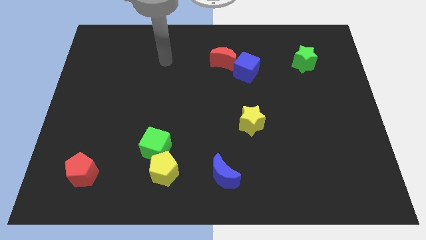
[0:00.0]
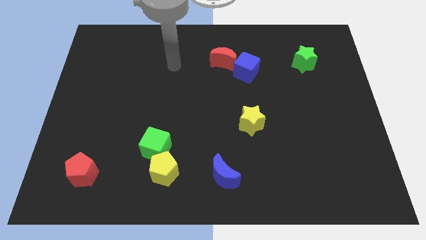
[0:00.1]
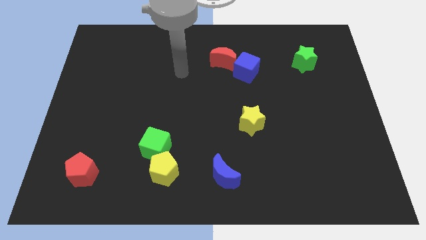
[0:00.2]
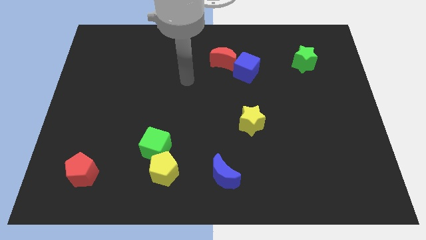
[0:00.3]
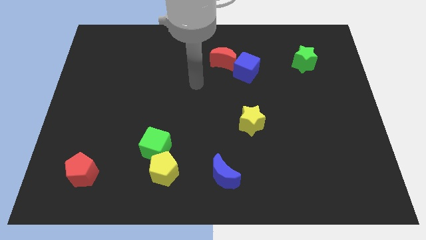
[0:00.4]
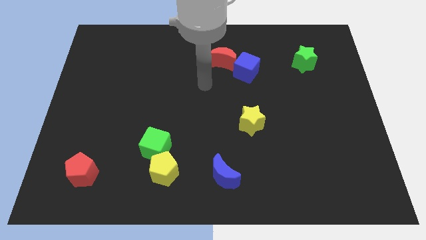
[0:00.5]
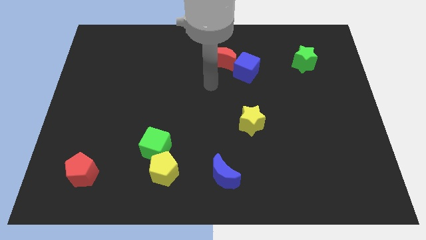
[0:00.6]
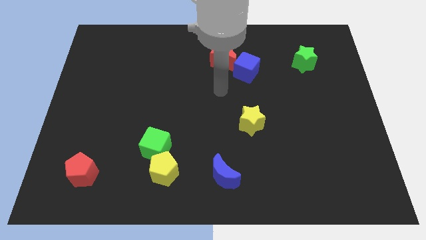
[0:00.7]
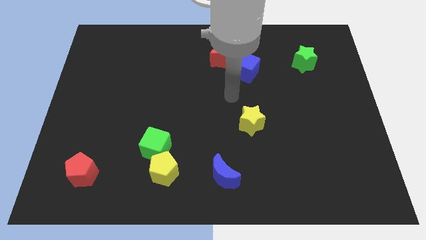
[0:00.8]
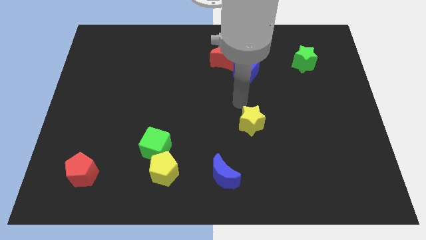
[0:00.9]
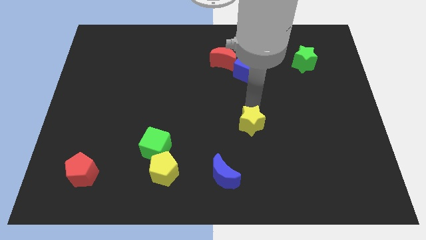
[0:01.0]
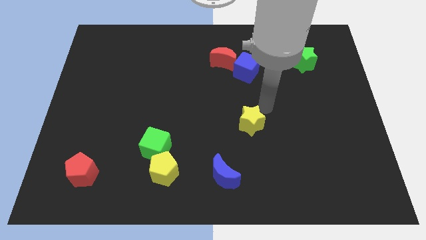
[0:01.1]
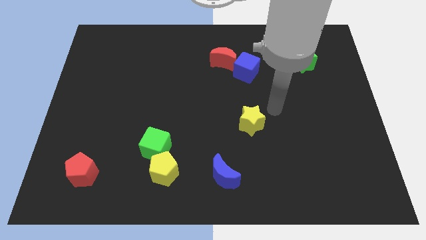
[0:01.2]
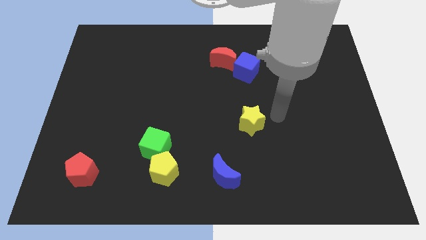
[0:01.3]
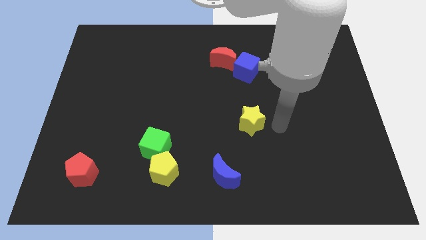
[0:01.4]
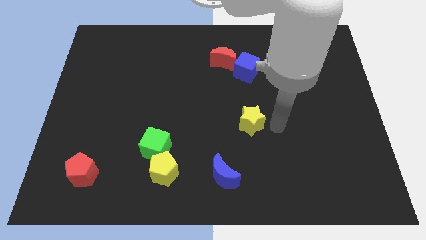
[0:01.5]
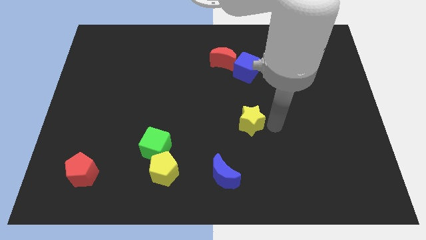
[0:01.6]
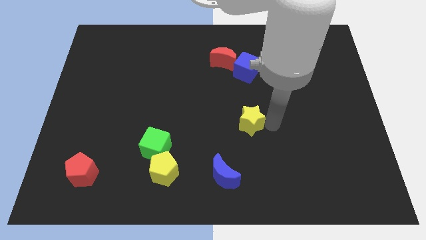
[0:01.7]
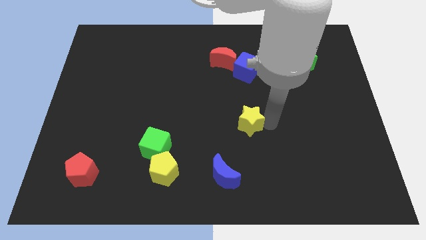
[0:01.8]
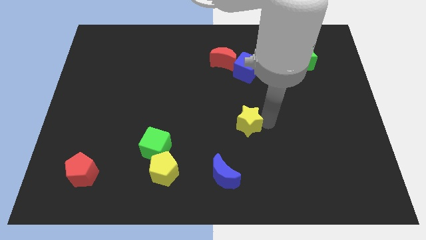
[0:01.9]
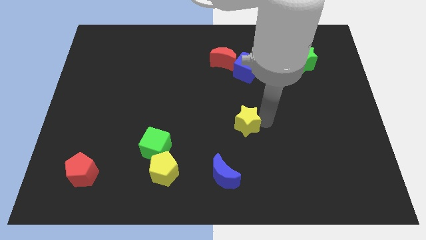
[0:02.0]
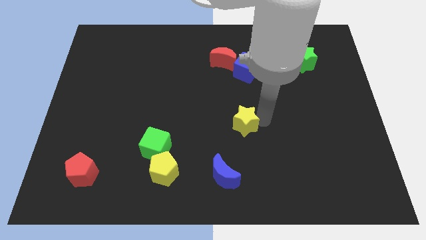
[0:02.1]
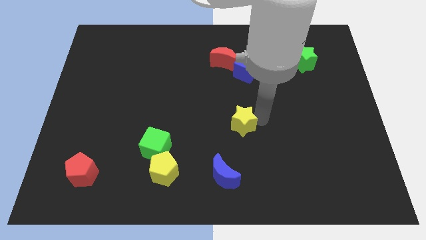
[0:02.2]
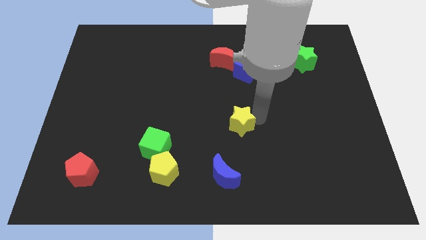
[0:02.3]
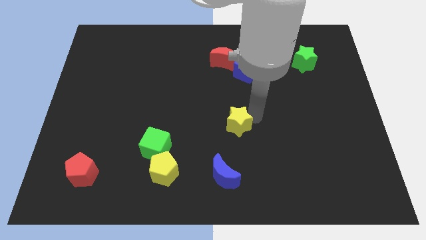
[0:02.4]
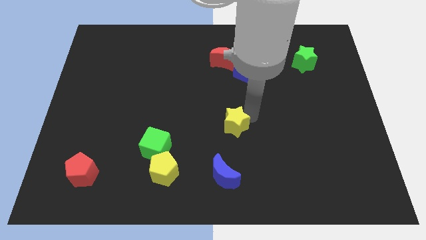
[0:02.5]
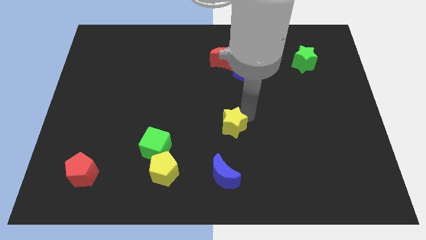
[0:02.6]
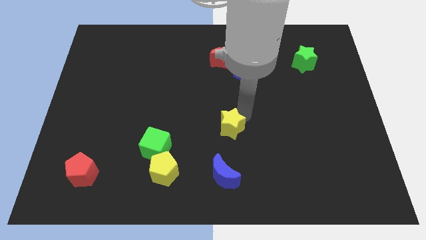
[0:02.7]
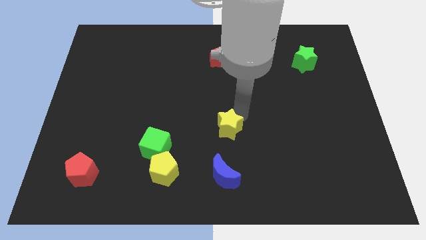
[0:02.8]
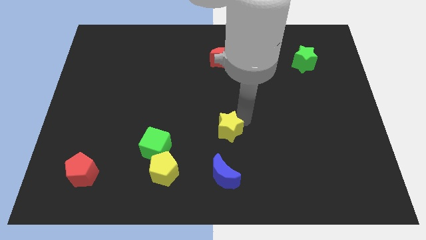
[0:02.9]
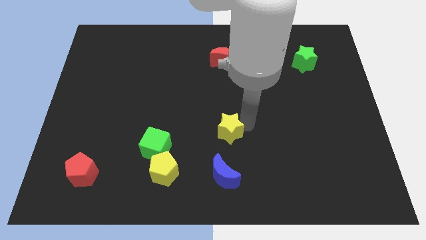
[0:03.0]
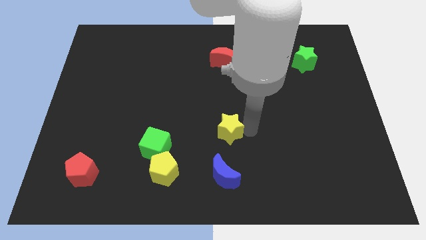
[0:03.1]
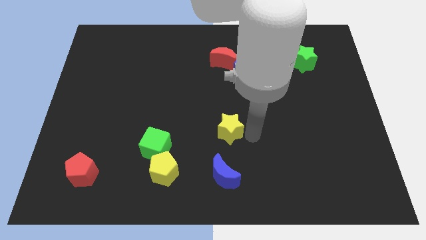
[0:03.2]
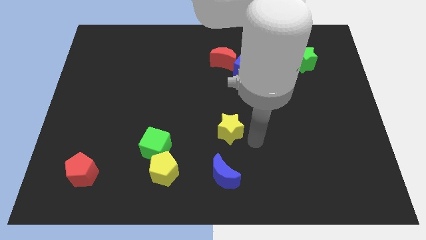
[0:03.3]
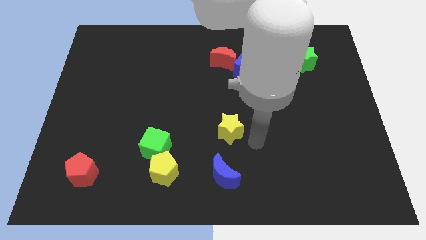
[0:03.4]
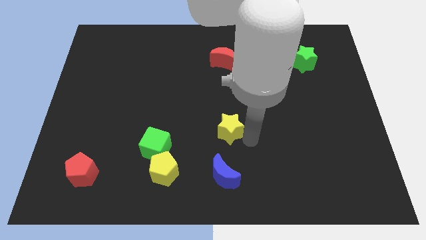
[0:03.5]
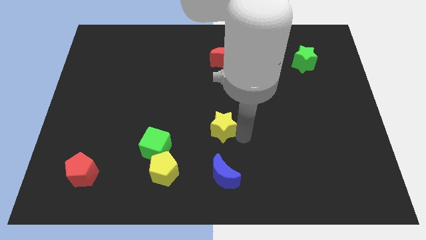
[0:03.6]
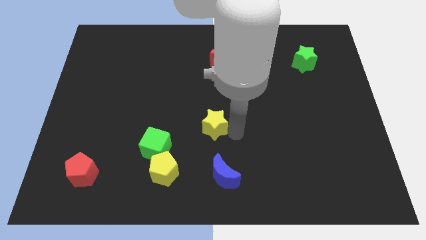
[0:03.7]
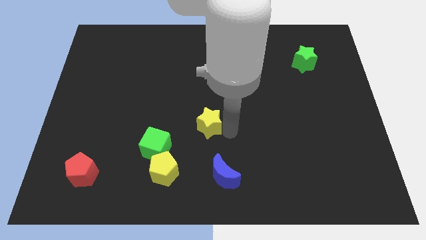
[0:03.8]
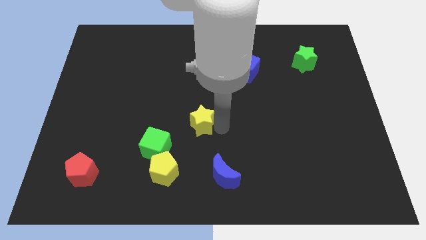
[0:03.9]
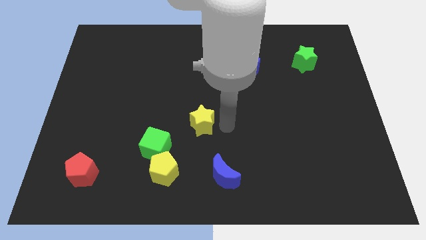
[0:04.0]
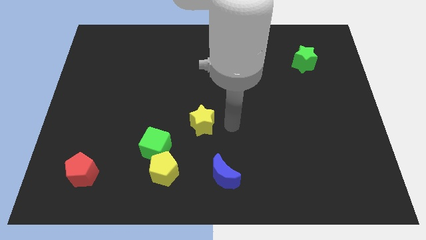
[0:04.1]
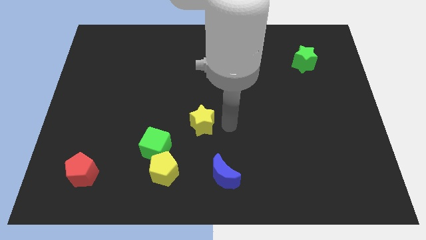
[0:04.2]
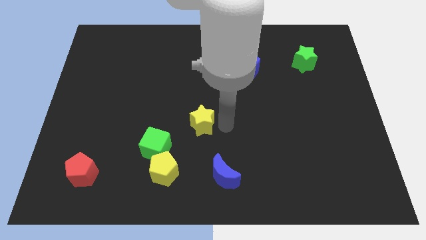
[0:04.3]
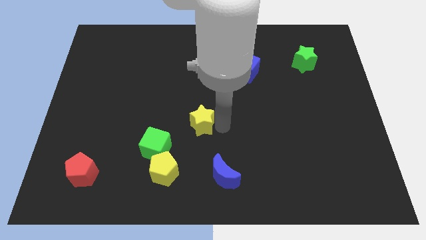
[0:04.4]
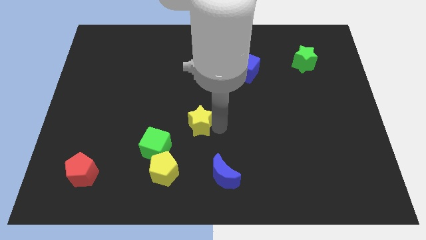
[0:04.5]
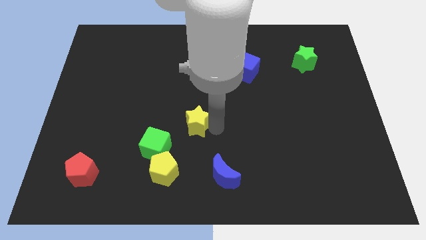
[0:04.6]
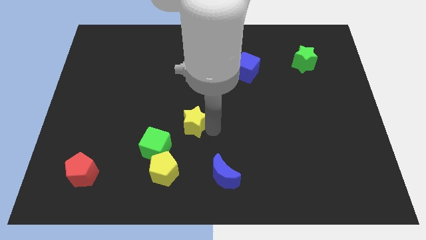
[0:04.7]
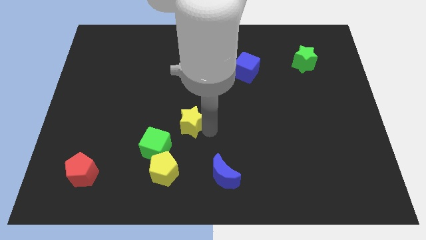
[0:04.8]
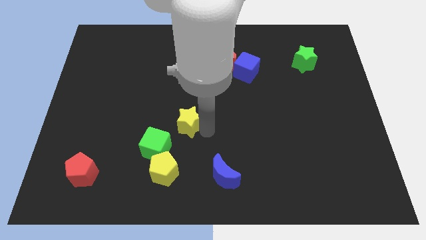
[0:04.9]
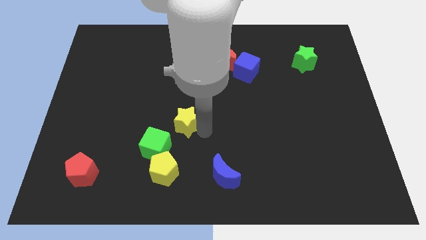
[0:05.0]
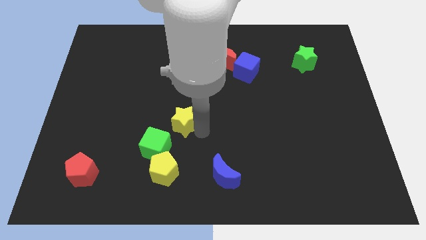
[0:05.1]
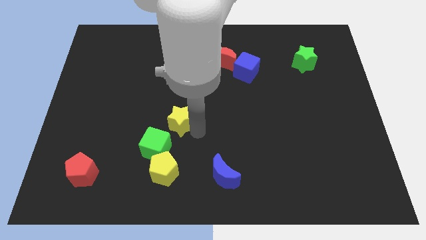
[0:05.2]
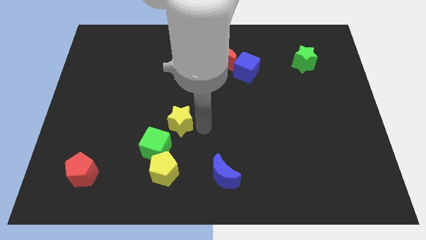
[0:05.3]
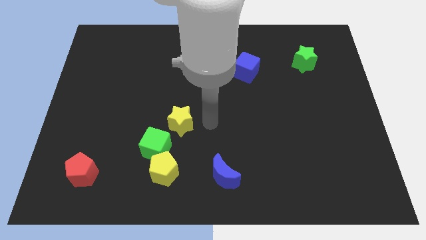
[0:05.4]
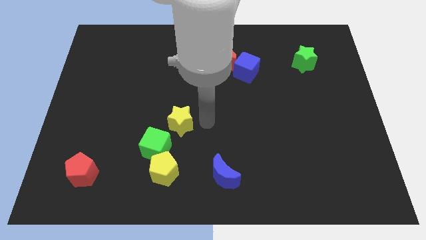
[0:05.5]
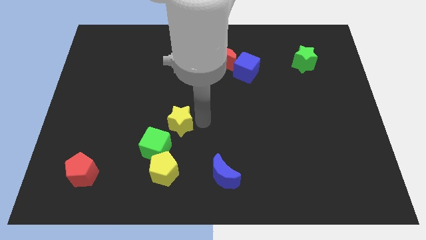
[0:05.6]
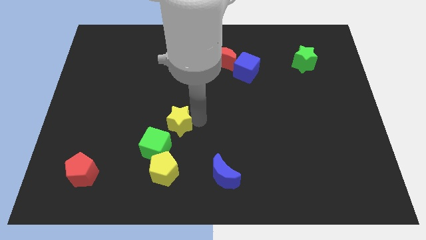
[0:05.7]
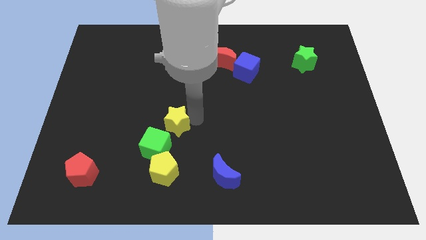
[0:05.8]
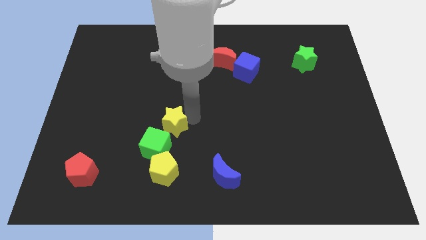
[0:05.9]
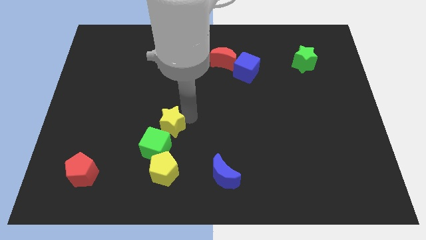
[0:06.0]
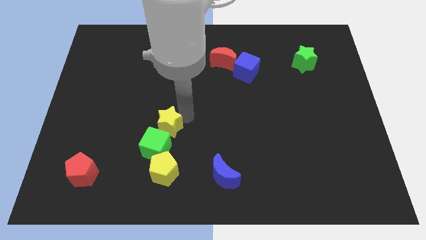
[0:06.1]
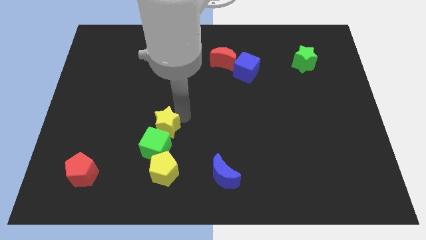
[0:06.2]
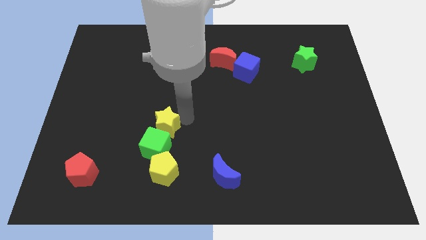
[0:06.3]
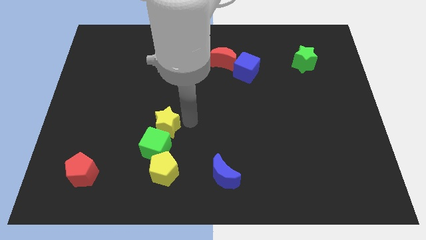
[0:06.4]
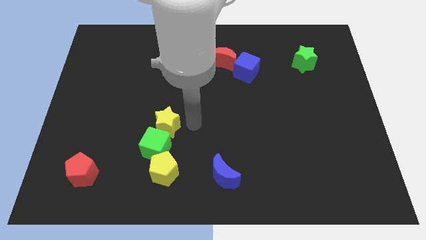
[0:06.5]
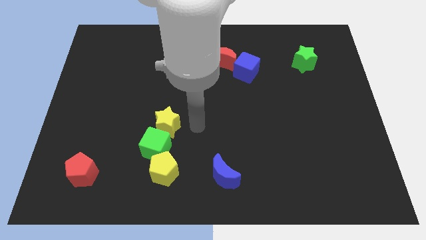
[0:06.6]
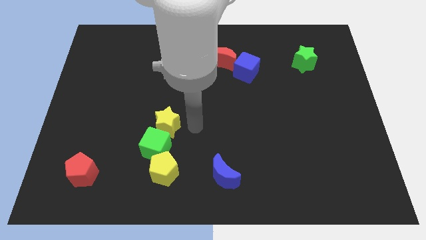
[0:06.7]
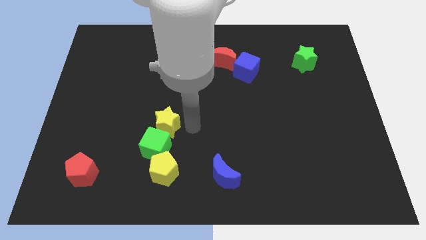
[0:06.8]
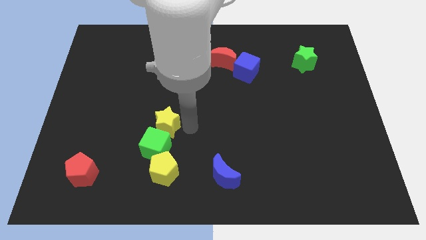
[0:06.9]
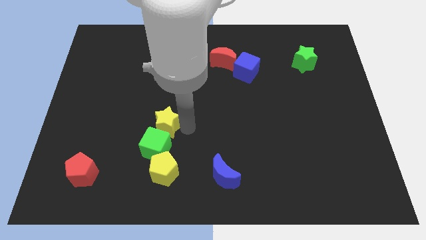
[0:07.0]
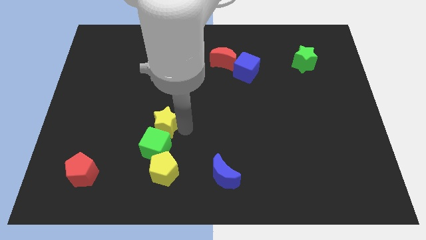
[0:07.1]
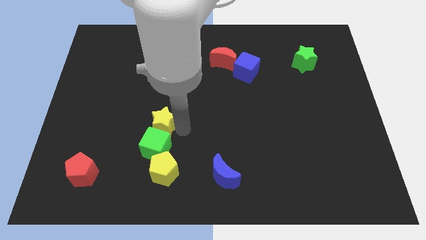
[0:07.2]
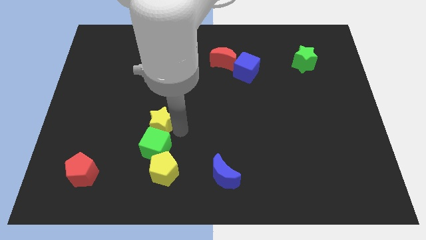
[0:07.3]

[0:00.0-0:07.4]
push the yellow star left

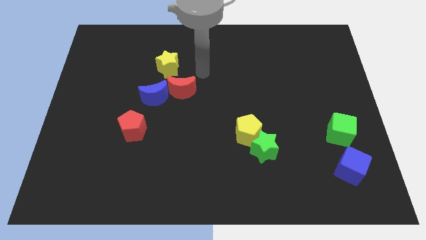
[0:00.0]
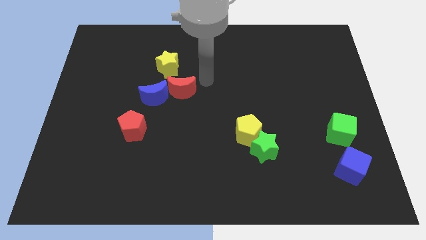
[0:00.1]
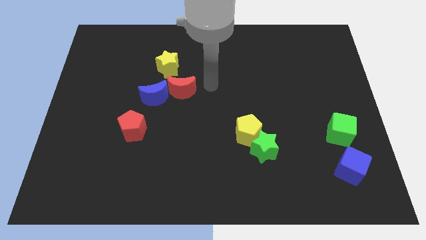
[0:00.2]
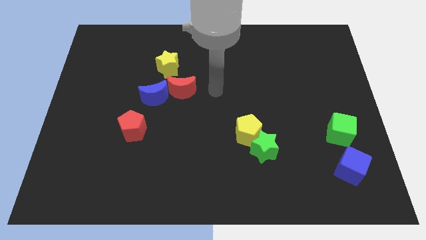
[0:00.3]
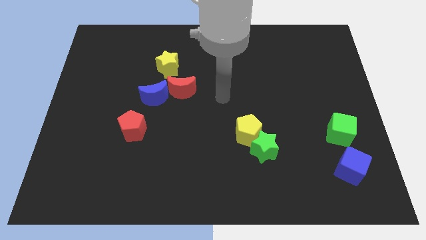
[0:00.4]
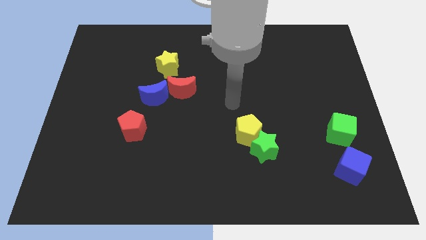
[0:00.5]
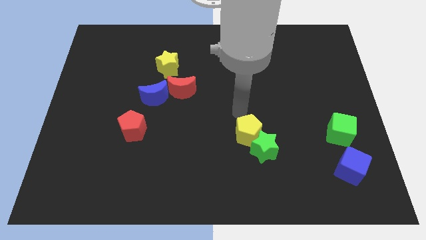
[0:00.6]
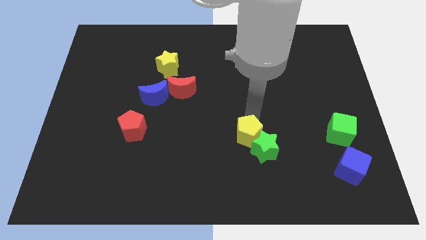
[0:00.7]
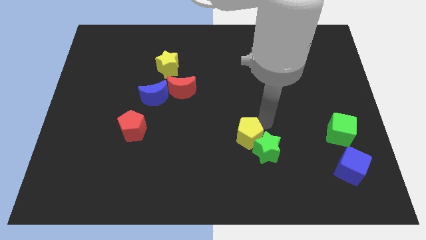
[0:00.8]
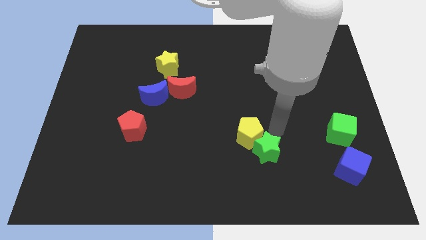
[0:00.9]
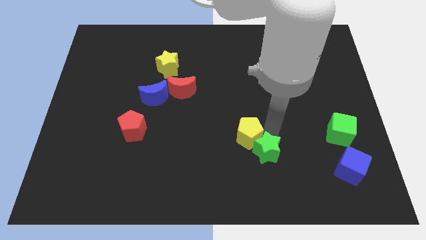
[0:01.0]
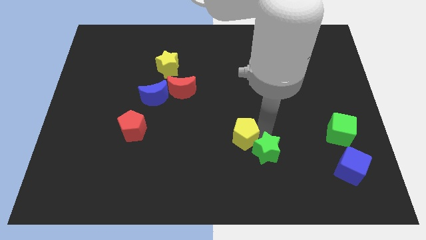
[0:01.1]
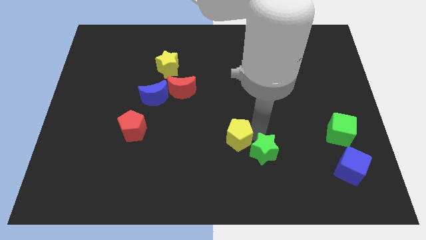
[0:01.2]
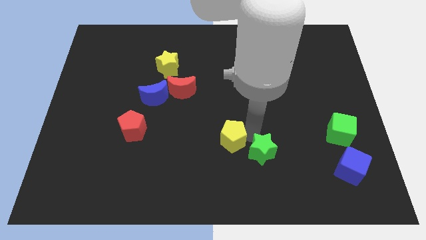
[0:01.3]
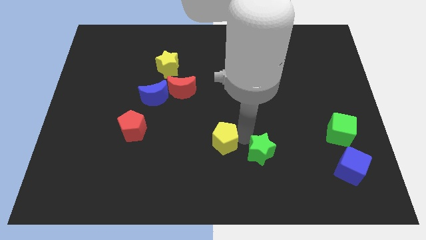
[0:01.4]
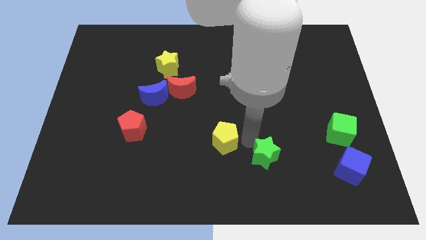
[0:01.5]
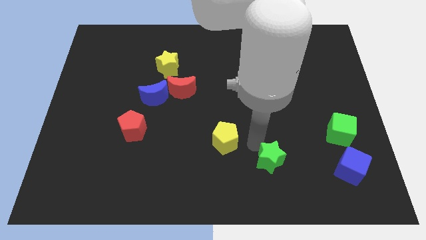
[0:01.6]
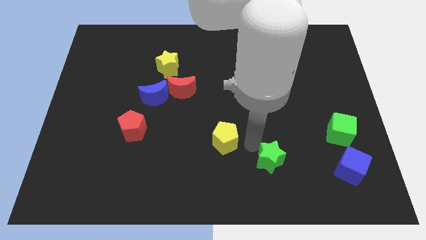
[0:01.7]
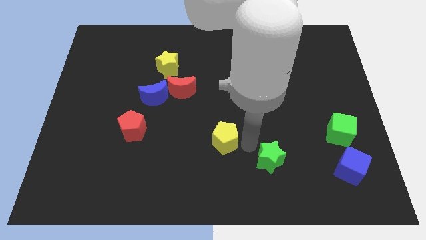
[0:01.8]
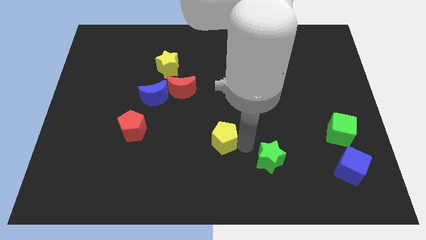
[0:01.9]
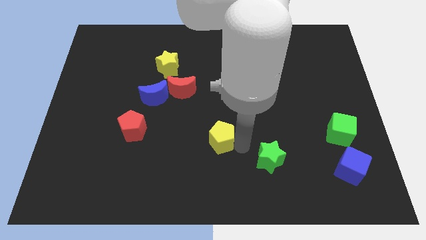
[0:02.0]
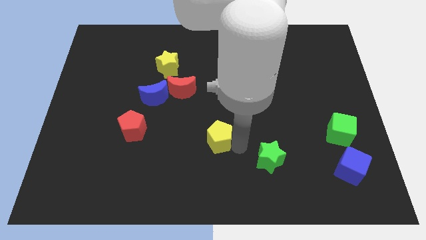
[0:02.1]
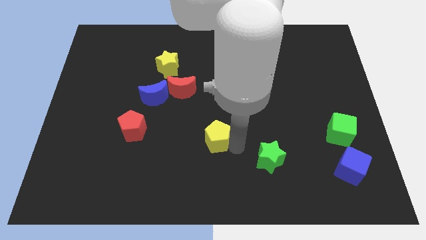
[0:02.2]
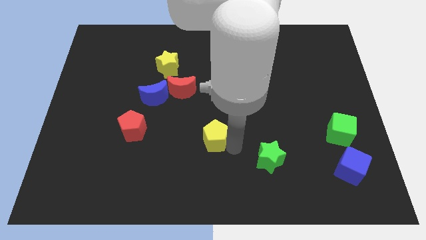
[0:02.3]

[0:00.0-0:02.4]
move the yellow pentagon a little bit left
